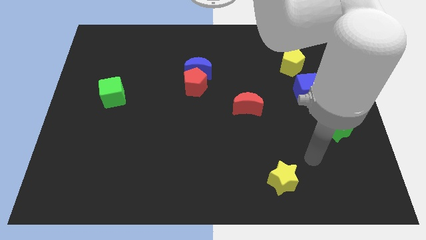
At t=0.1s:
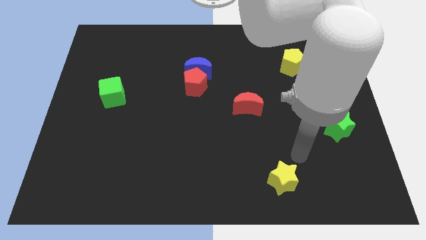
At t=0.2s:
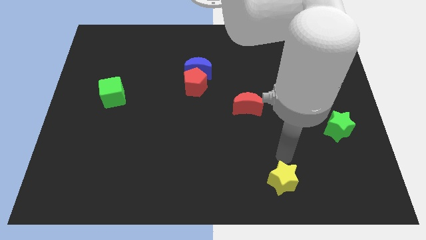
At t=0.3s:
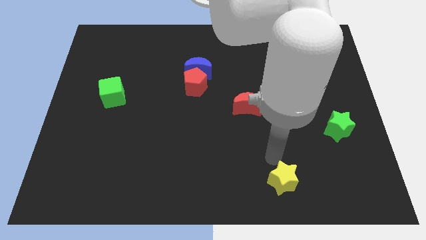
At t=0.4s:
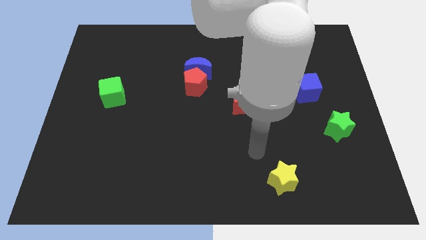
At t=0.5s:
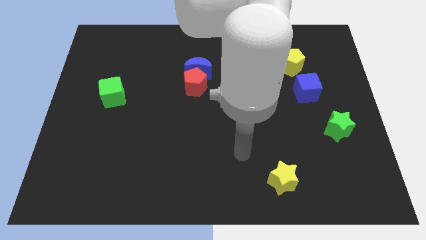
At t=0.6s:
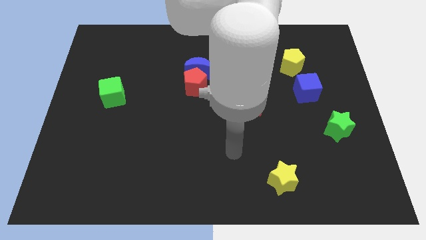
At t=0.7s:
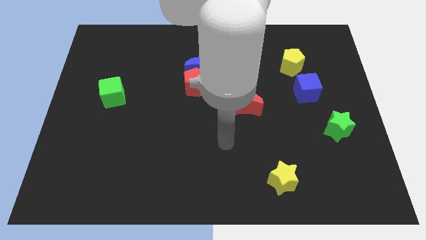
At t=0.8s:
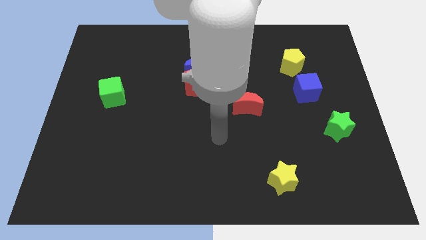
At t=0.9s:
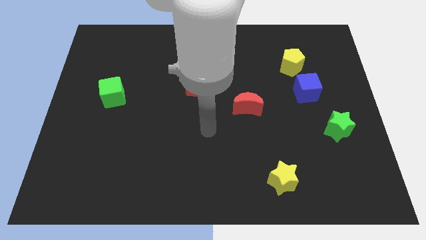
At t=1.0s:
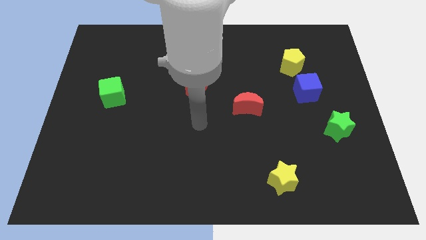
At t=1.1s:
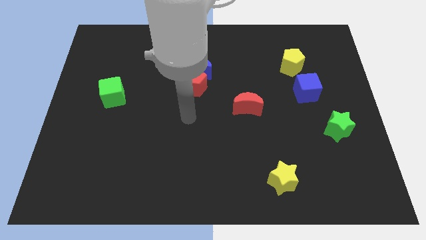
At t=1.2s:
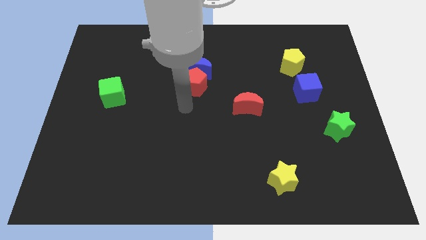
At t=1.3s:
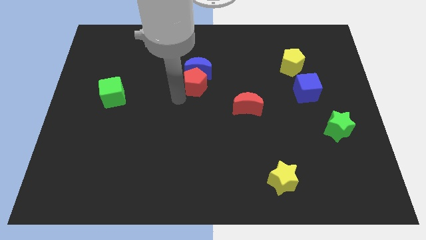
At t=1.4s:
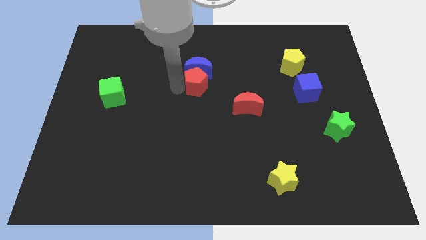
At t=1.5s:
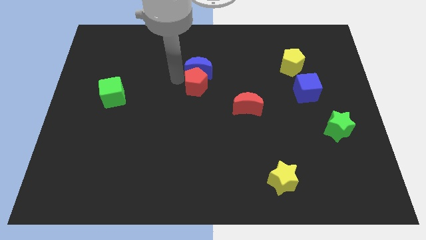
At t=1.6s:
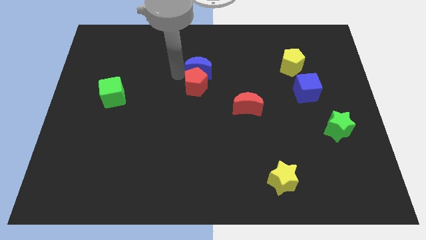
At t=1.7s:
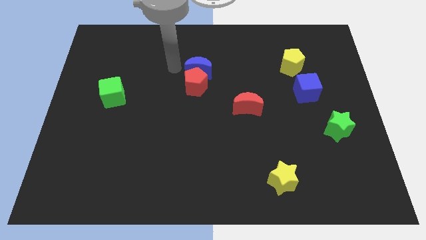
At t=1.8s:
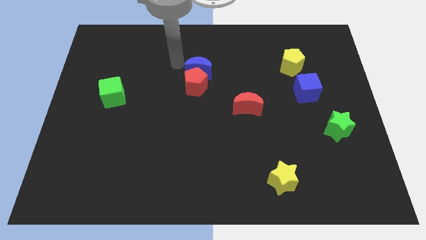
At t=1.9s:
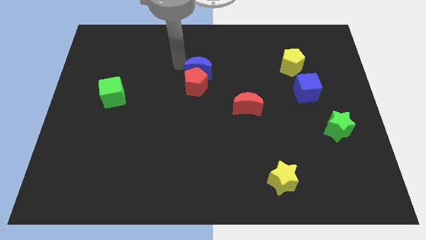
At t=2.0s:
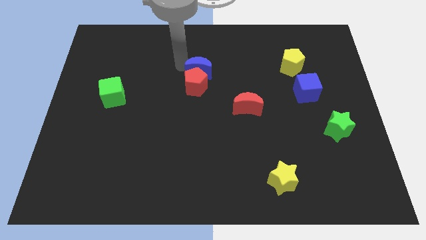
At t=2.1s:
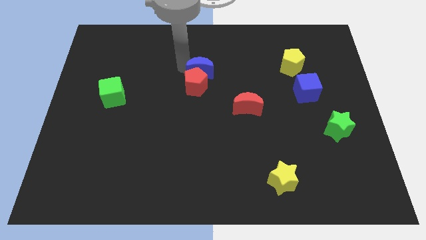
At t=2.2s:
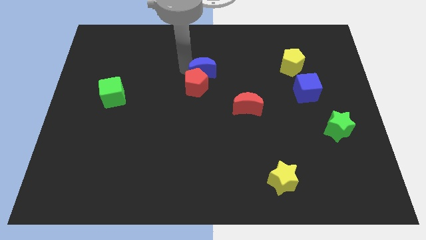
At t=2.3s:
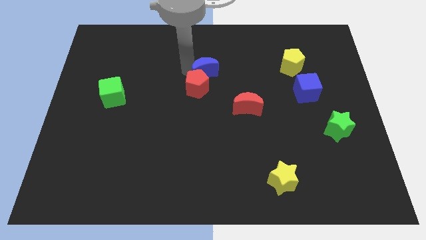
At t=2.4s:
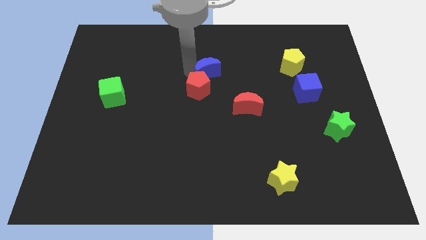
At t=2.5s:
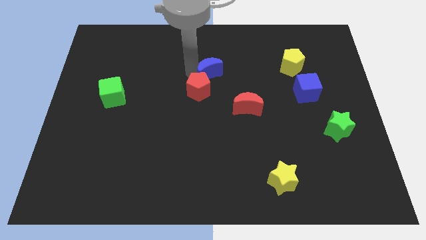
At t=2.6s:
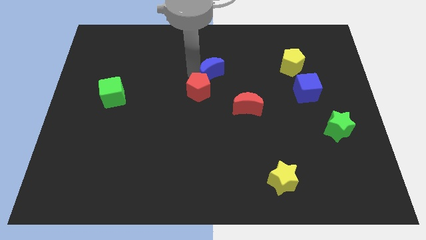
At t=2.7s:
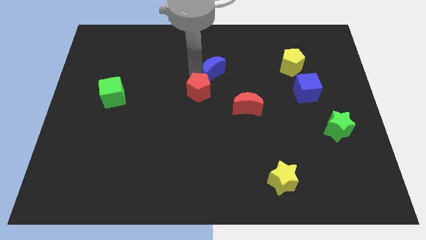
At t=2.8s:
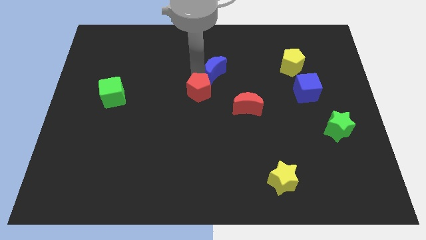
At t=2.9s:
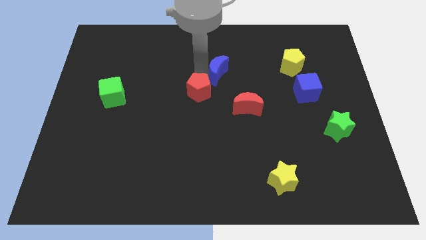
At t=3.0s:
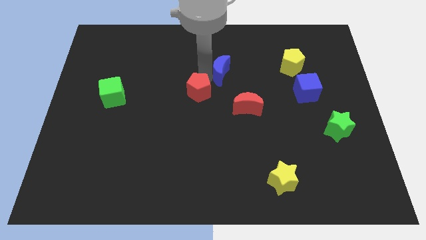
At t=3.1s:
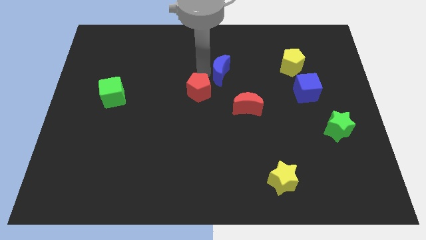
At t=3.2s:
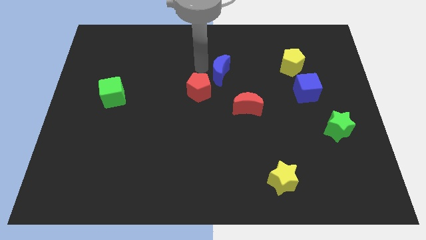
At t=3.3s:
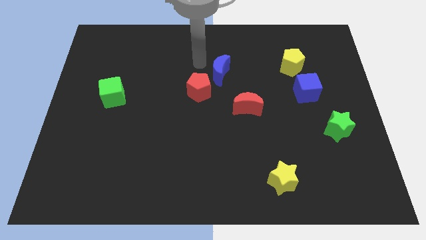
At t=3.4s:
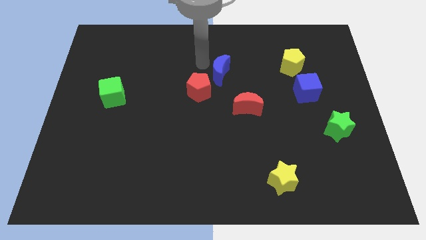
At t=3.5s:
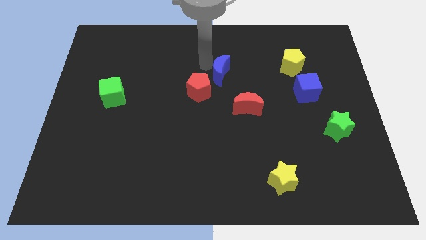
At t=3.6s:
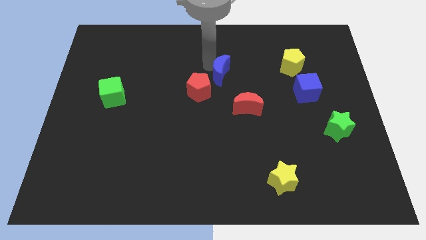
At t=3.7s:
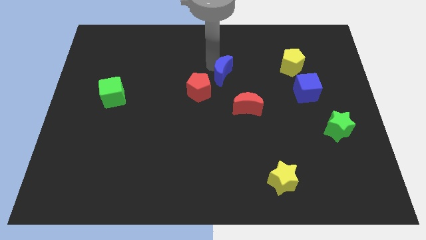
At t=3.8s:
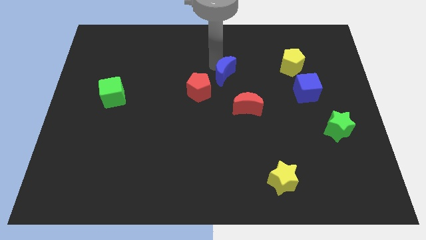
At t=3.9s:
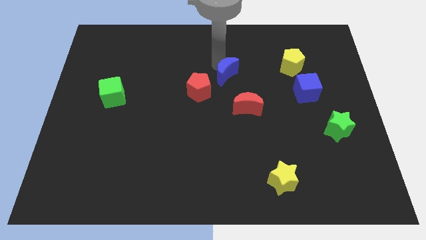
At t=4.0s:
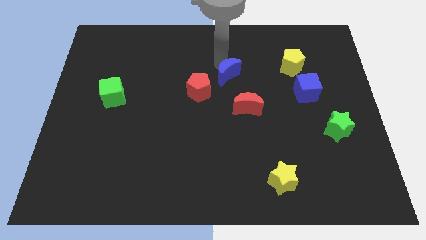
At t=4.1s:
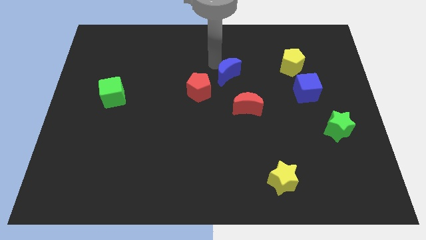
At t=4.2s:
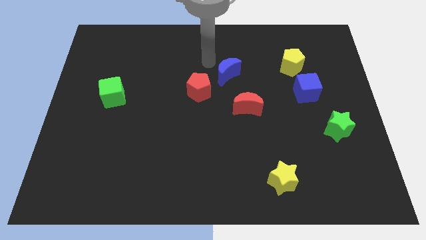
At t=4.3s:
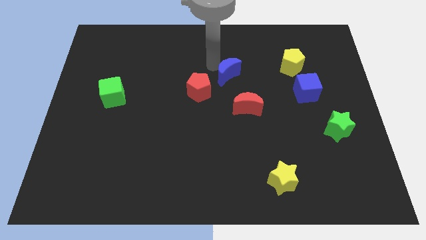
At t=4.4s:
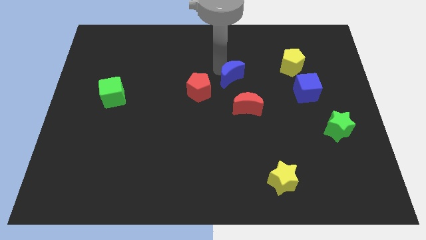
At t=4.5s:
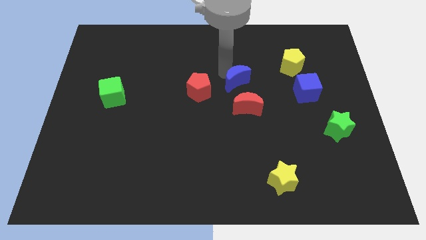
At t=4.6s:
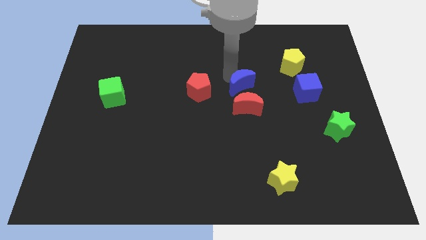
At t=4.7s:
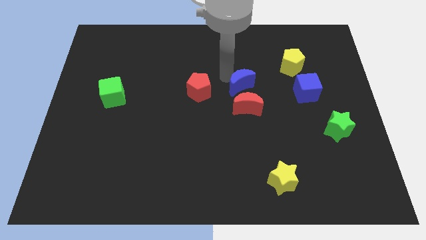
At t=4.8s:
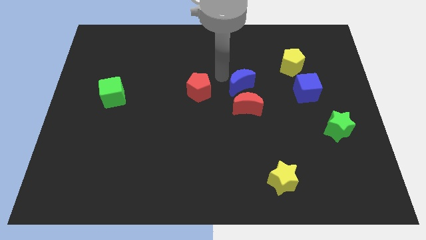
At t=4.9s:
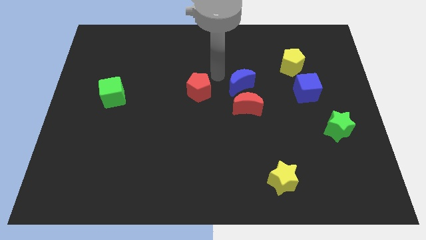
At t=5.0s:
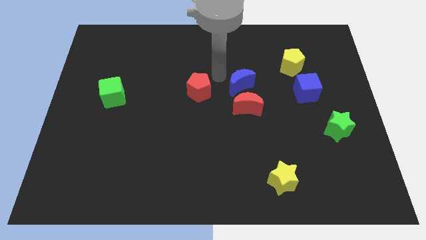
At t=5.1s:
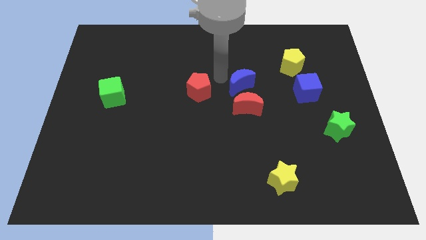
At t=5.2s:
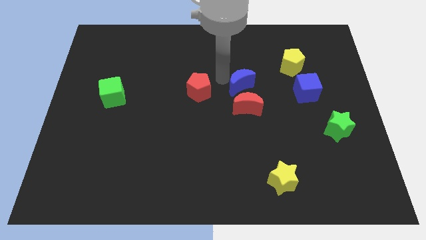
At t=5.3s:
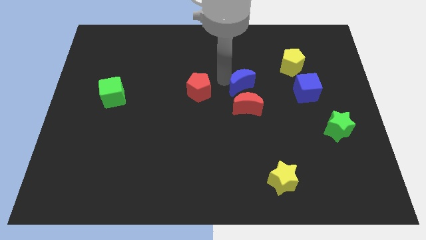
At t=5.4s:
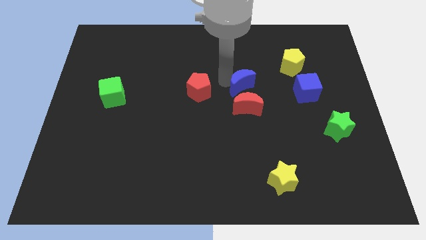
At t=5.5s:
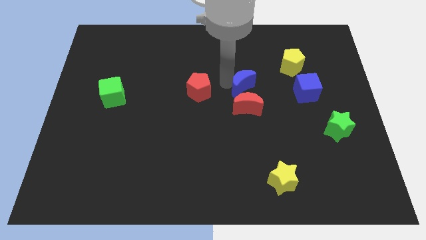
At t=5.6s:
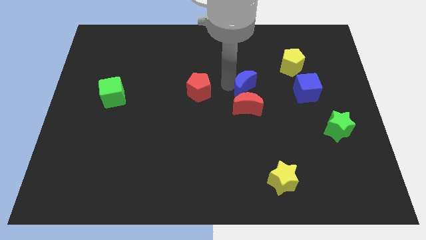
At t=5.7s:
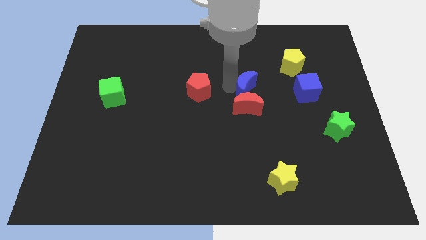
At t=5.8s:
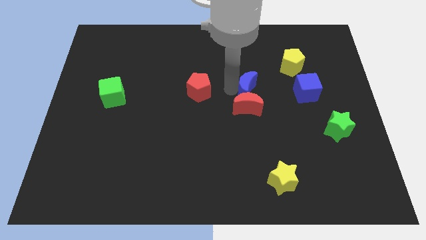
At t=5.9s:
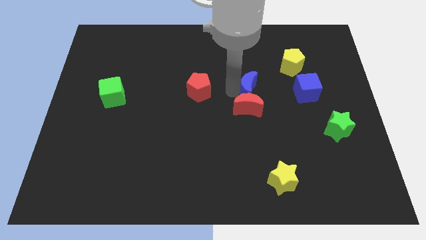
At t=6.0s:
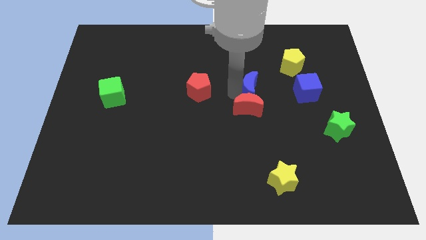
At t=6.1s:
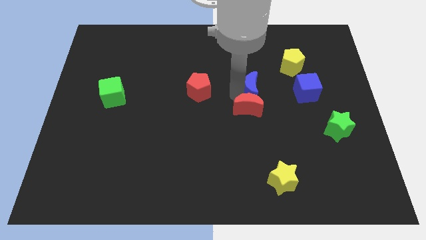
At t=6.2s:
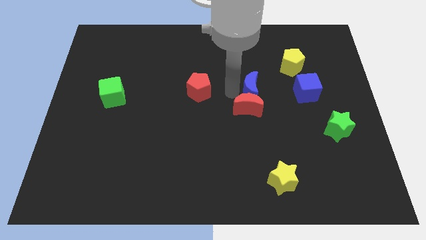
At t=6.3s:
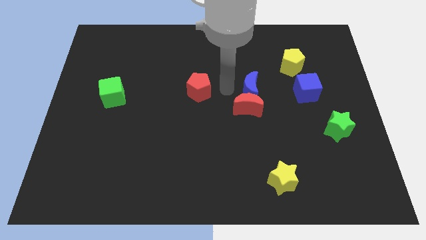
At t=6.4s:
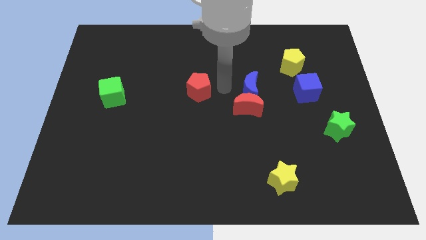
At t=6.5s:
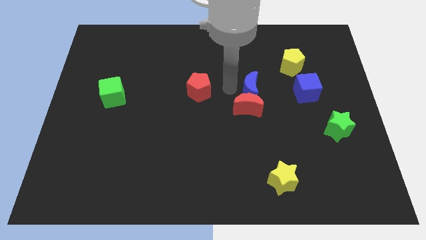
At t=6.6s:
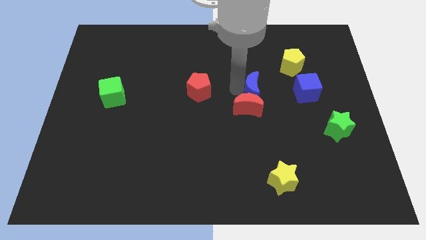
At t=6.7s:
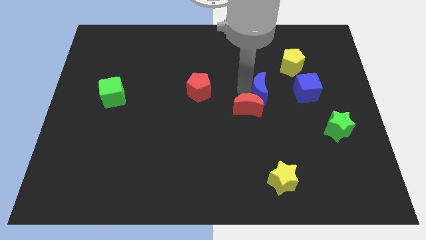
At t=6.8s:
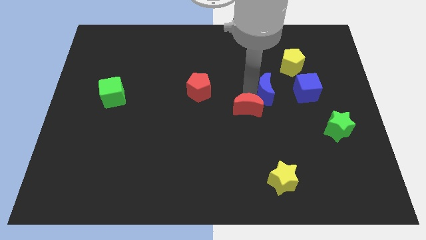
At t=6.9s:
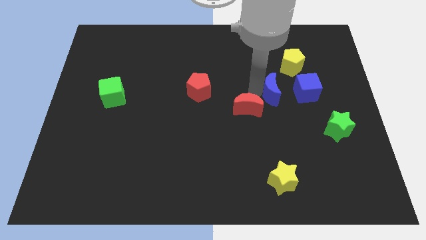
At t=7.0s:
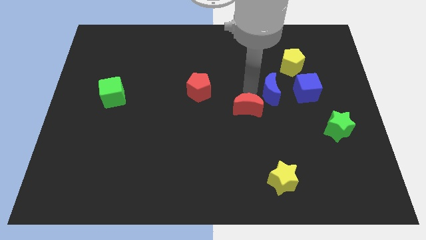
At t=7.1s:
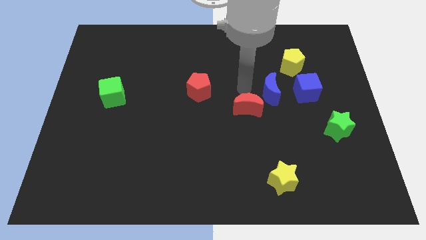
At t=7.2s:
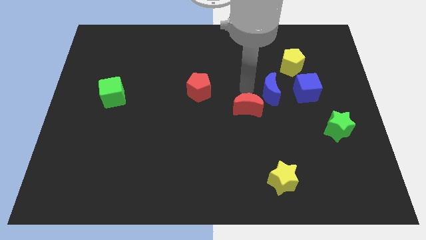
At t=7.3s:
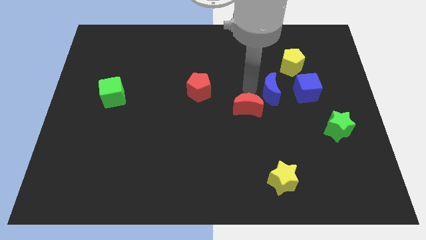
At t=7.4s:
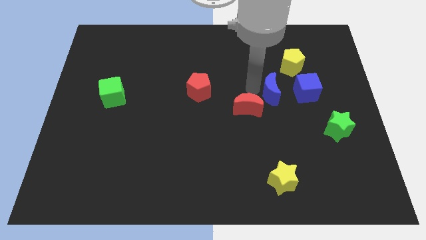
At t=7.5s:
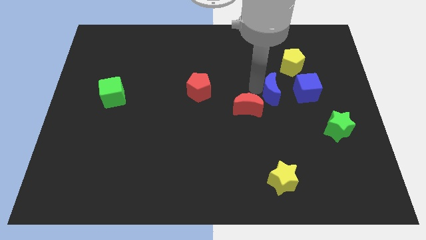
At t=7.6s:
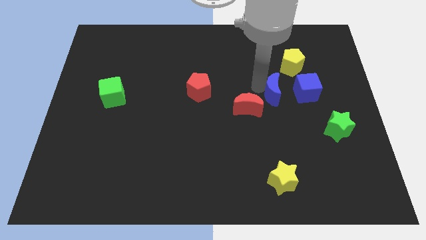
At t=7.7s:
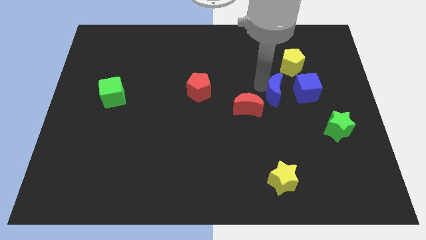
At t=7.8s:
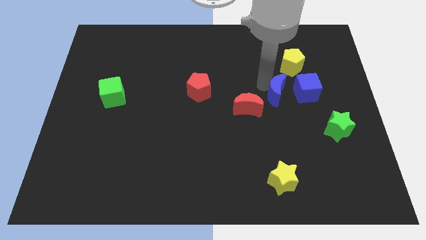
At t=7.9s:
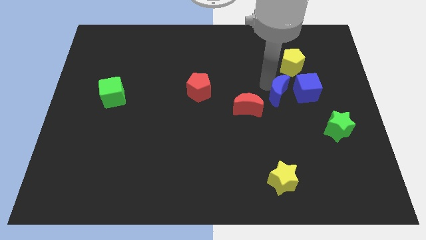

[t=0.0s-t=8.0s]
slide the blue moon to the bottom side of the yellow pentagon
